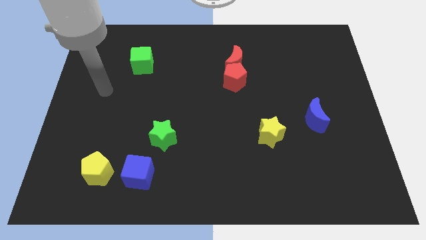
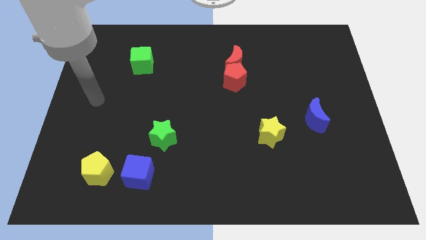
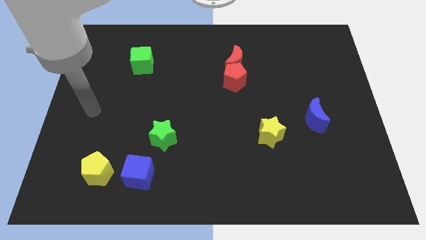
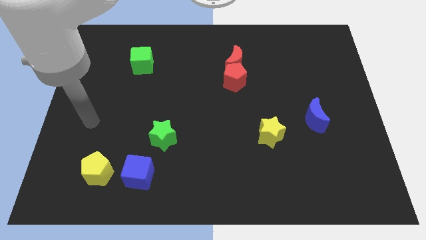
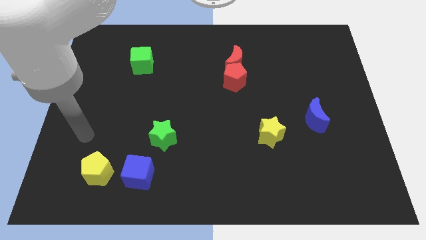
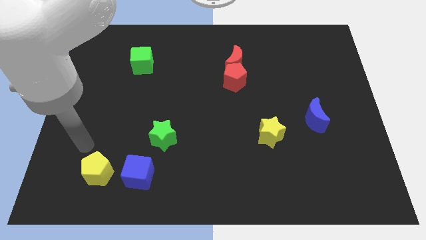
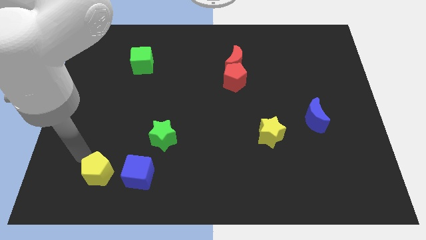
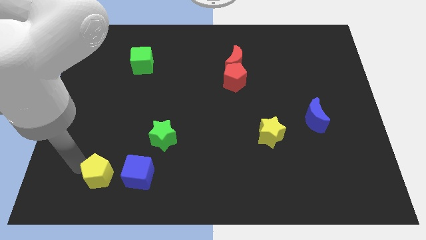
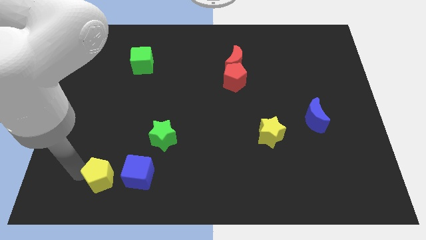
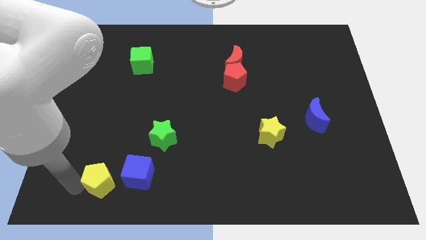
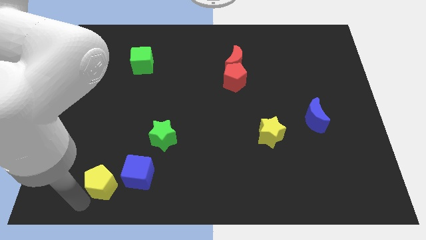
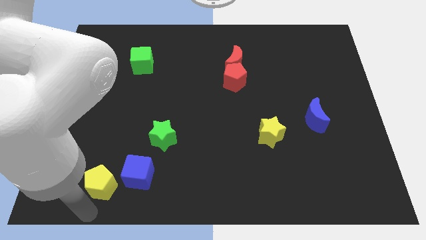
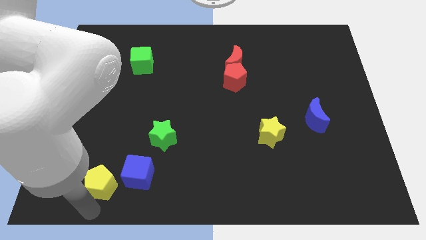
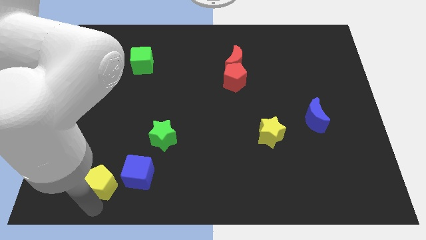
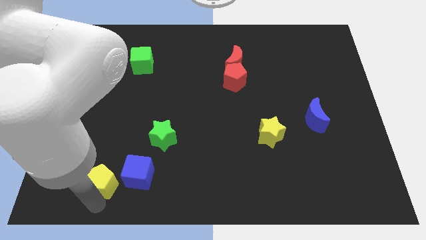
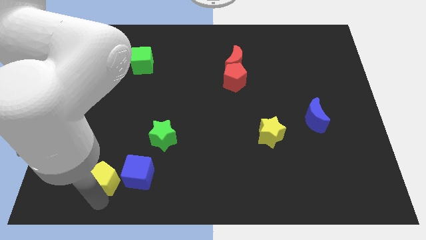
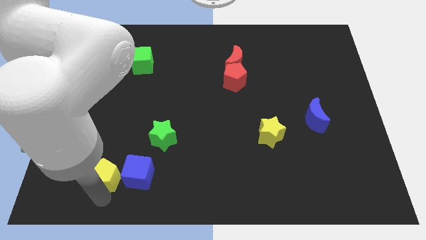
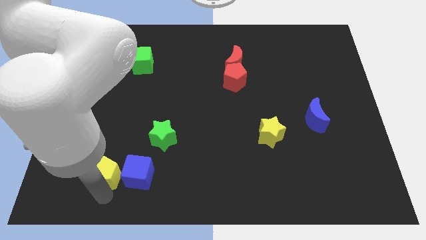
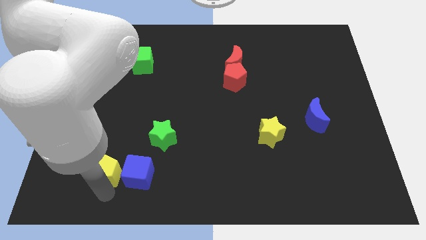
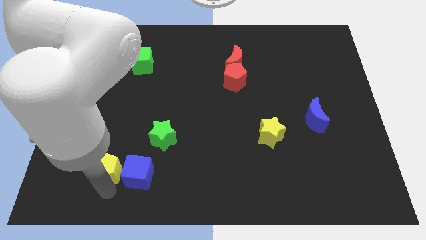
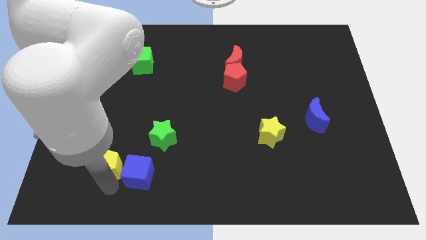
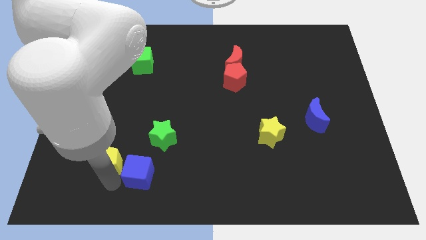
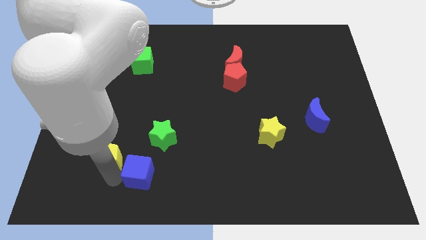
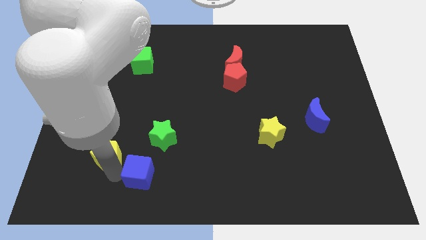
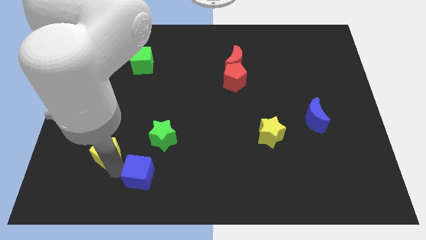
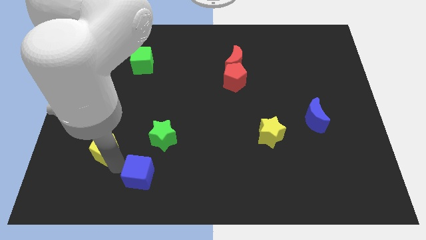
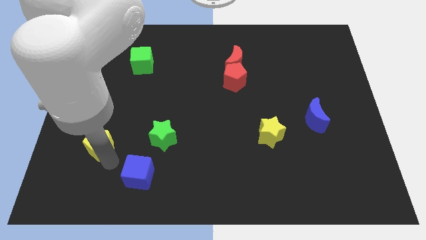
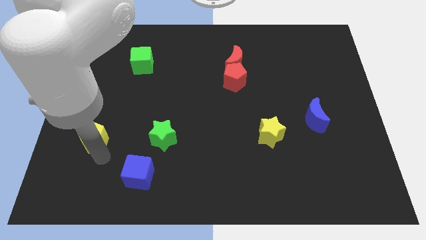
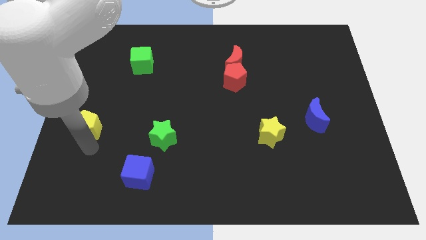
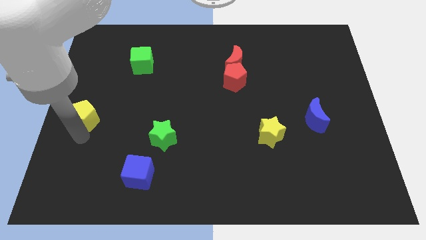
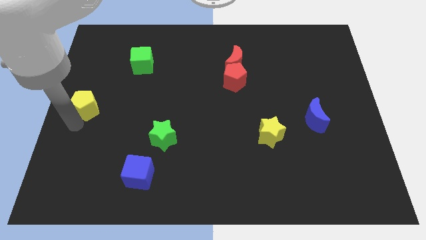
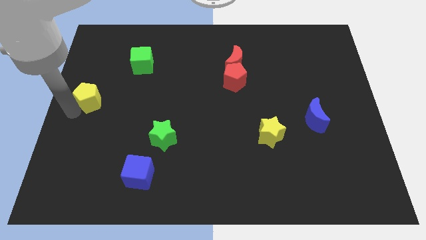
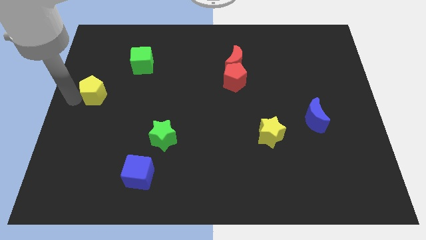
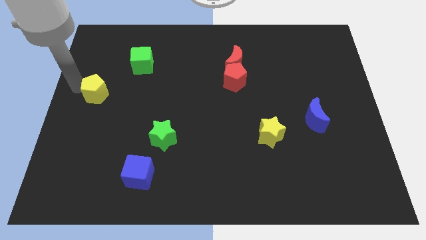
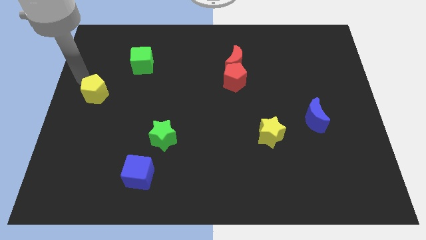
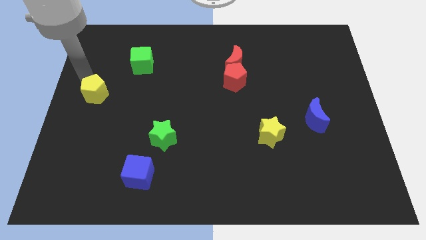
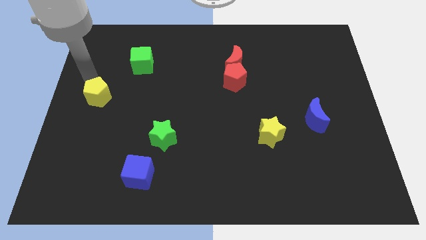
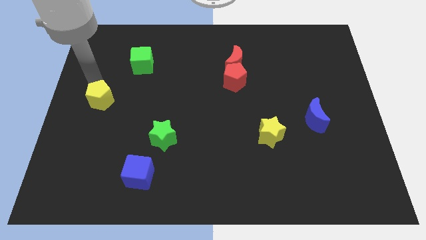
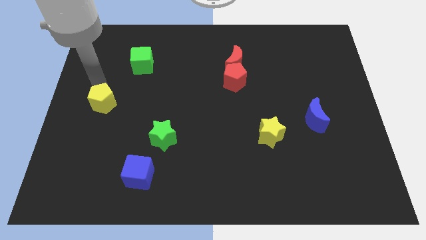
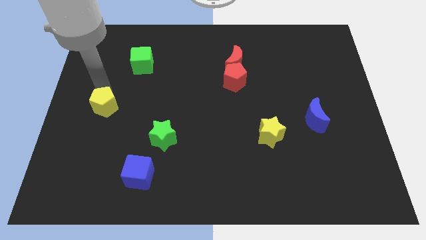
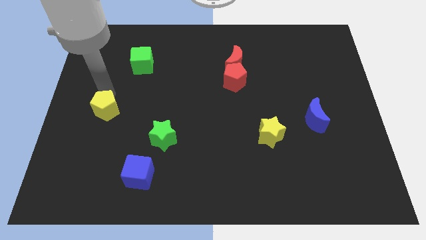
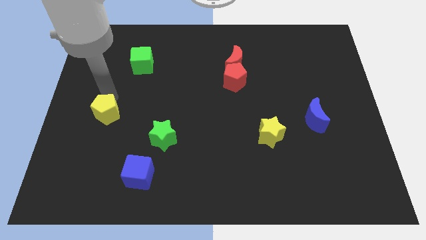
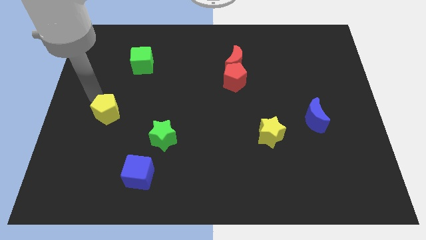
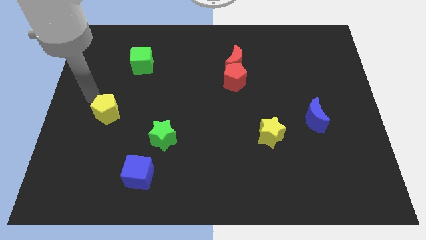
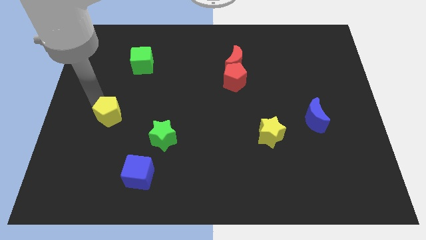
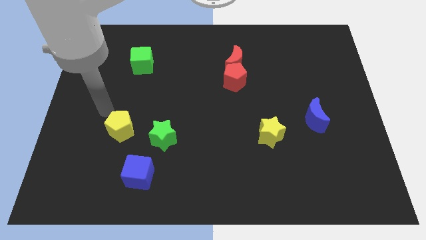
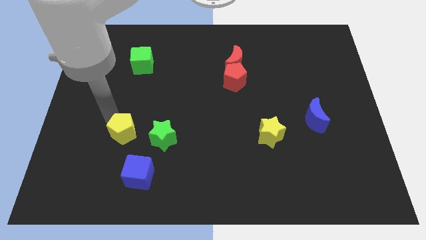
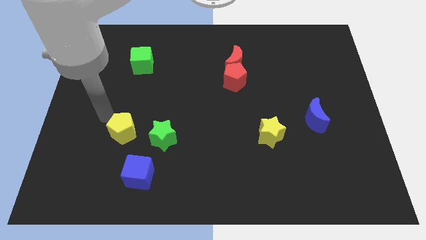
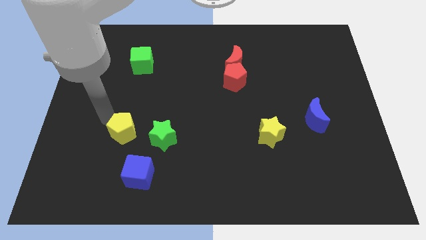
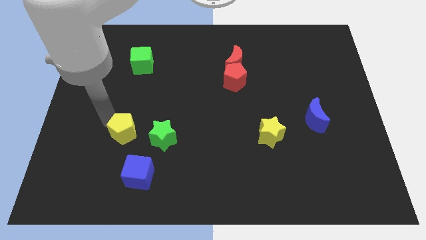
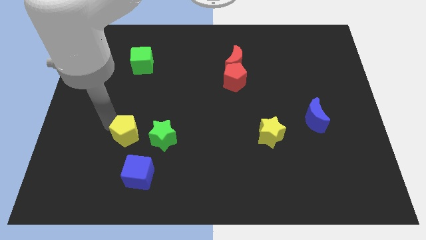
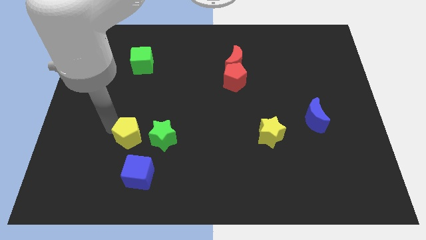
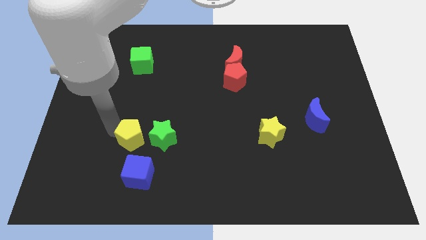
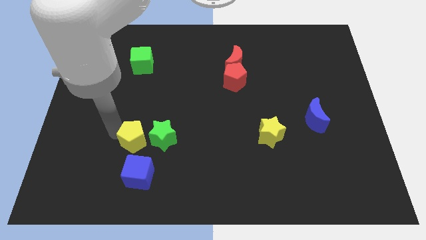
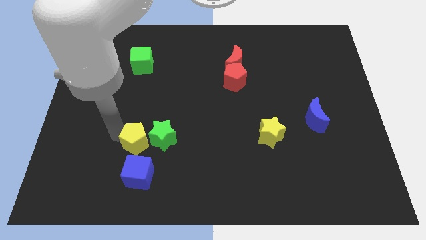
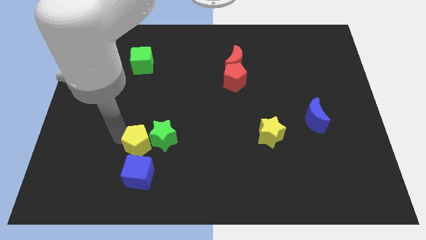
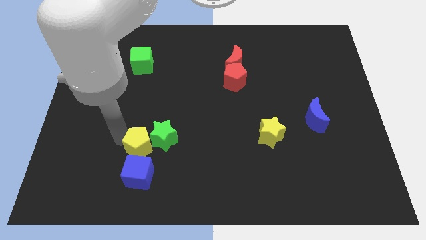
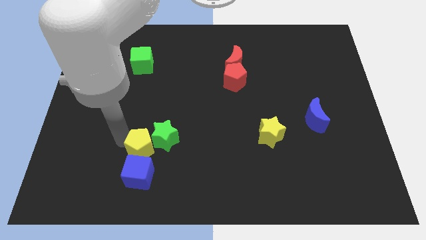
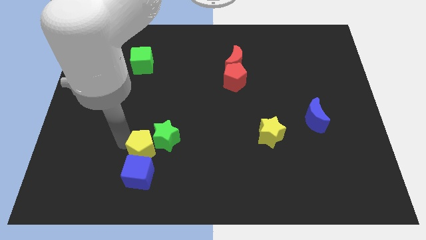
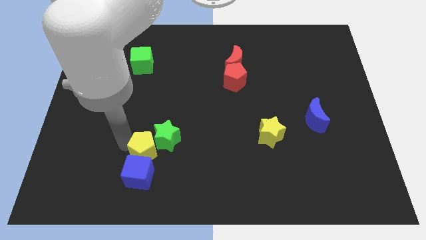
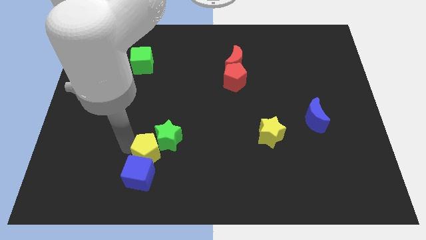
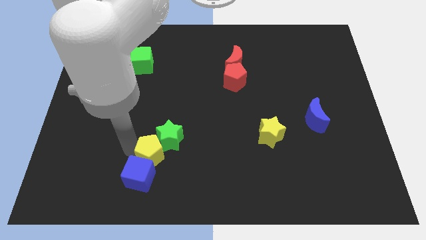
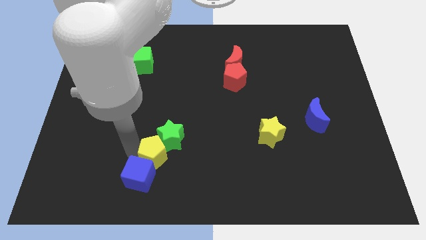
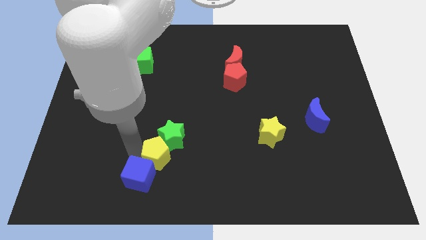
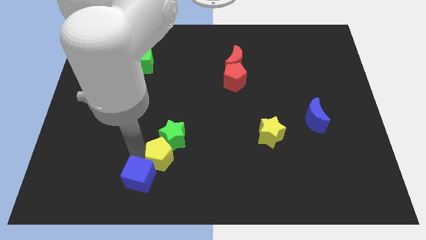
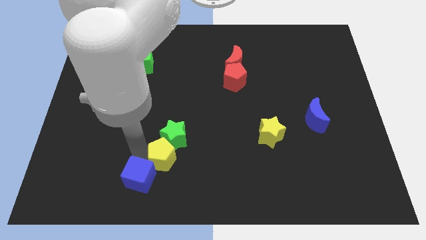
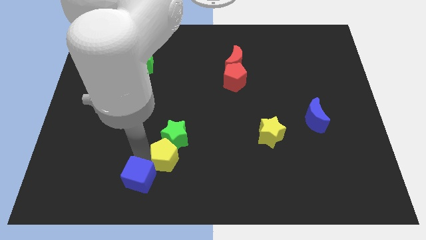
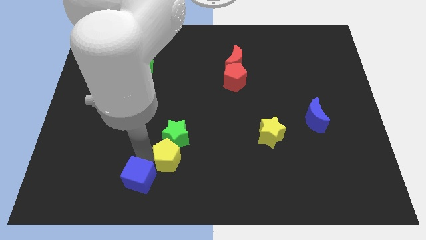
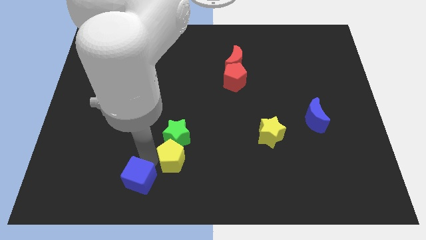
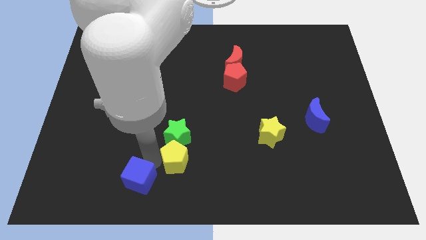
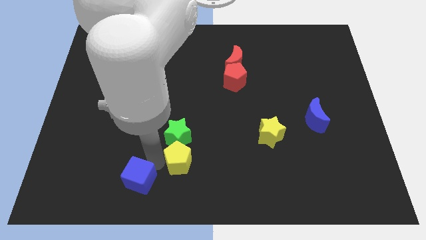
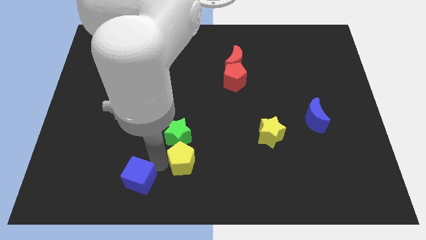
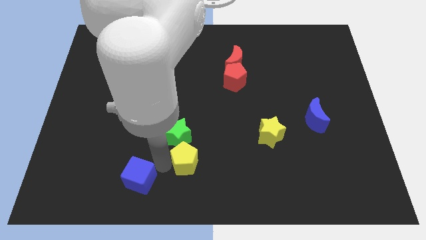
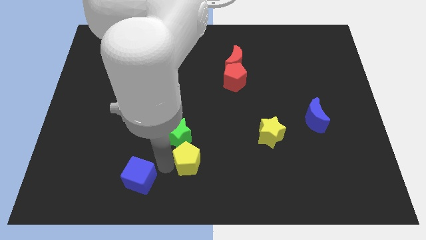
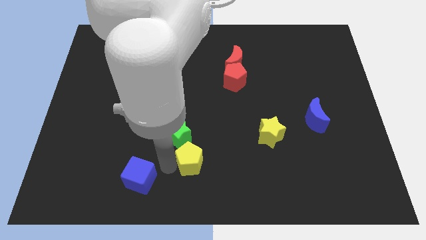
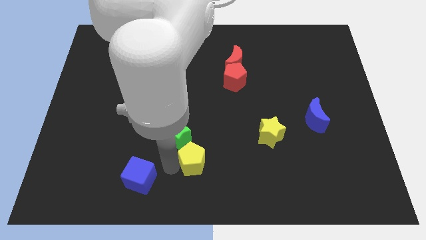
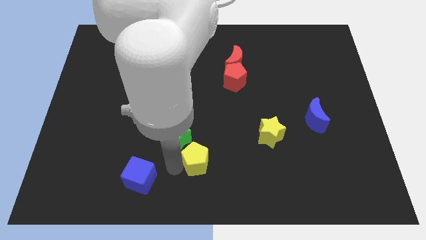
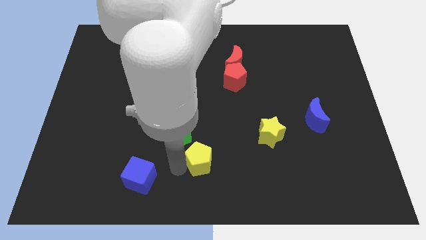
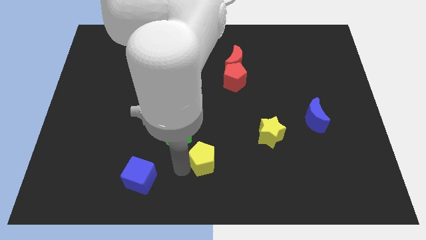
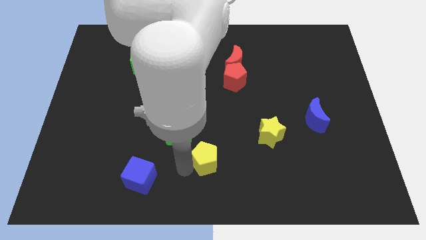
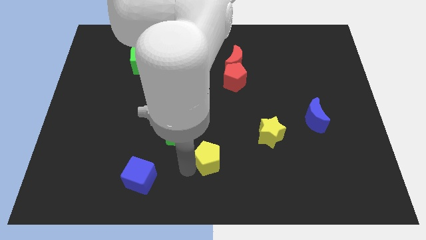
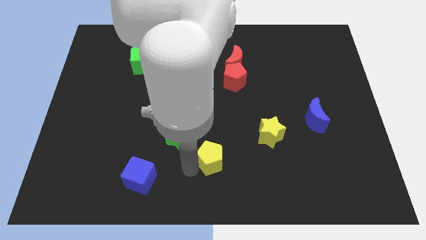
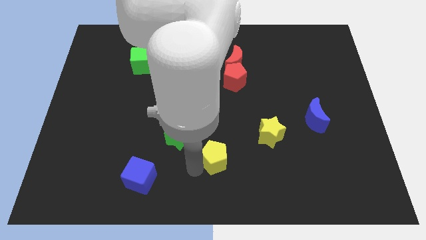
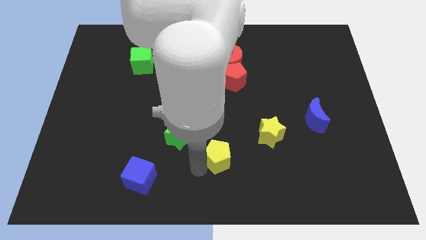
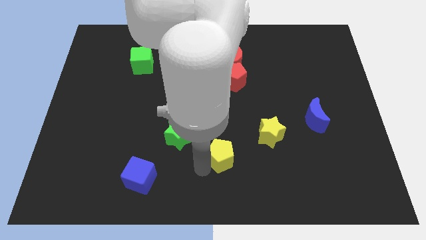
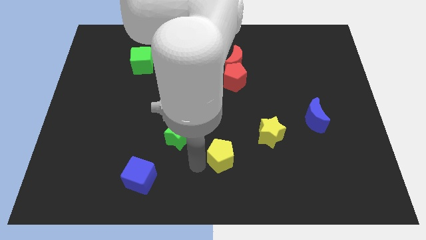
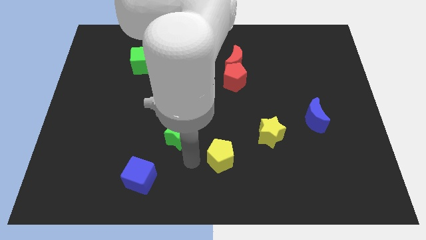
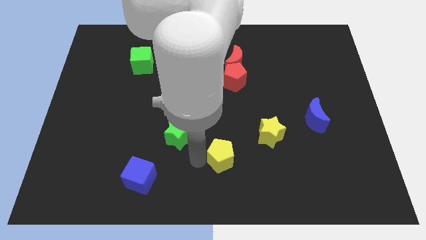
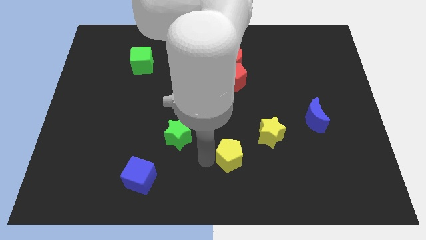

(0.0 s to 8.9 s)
move the yellow pentagon to the bottom left side of the yellow star
